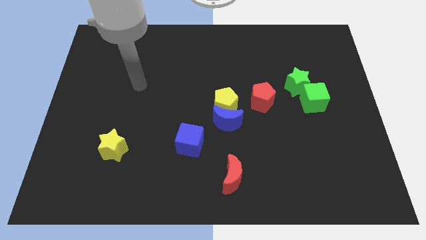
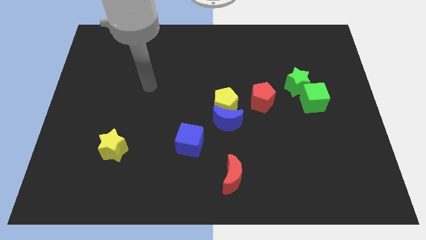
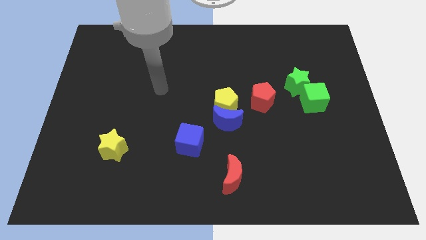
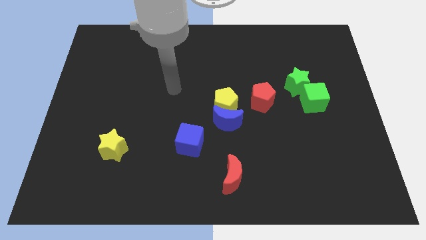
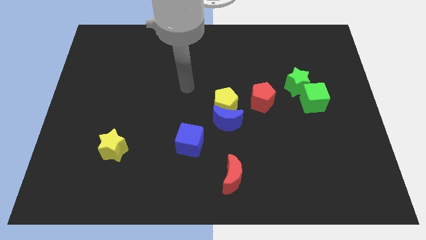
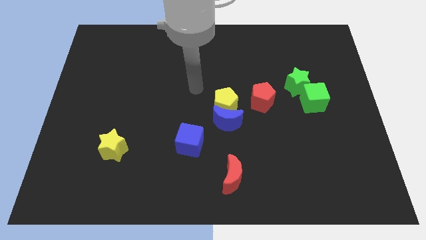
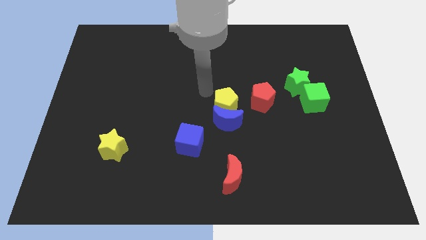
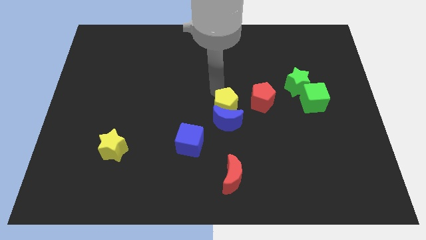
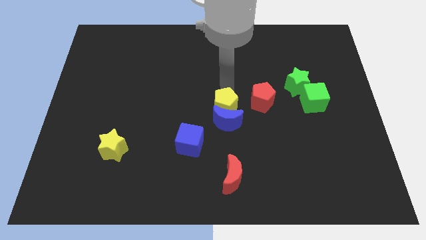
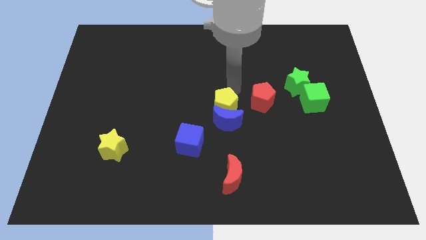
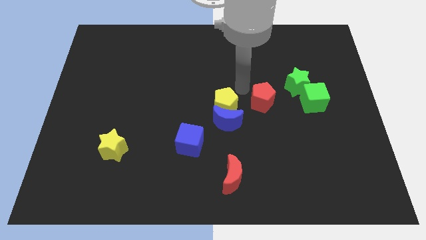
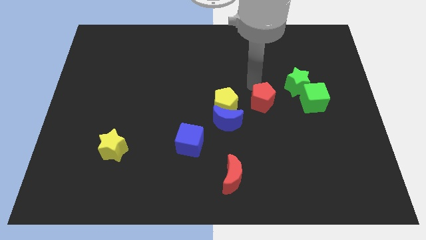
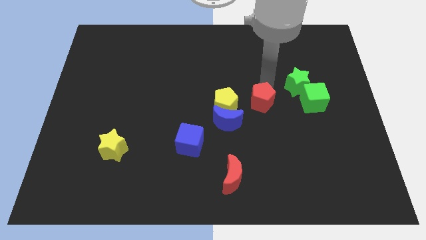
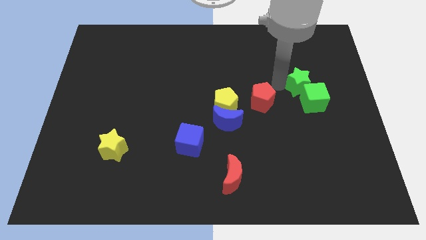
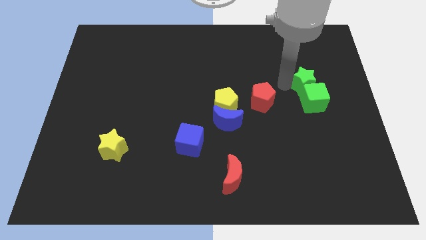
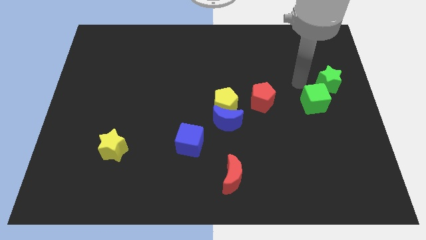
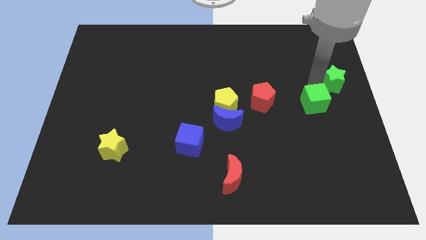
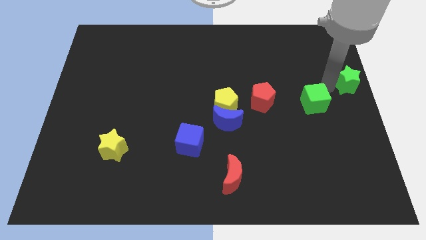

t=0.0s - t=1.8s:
move the green cube away from the green star

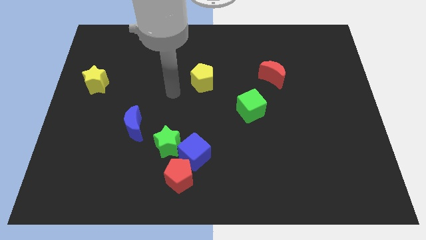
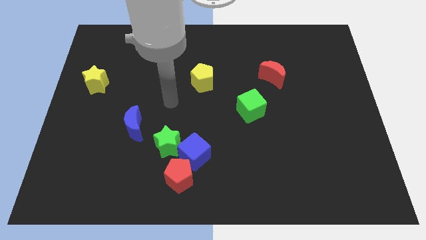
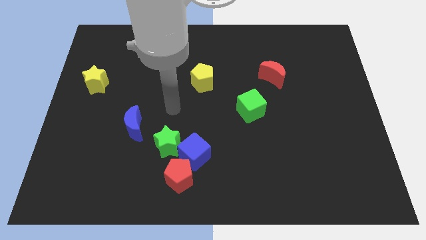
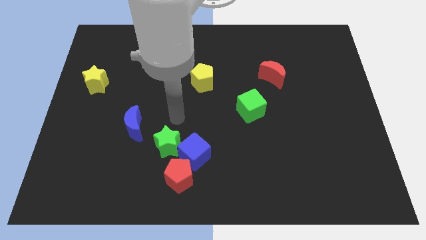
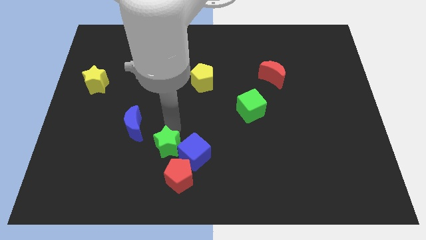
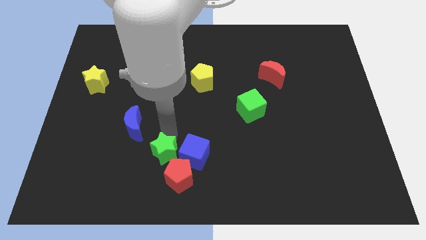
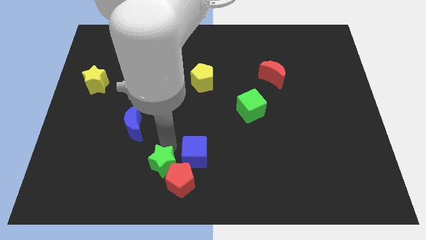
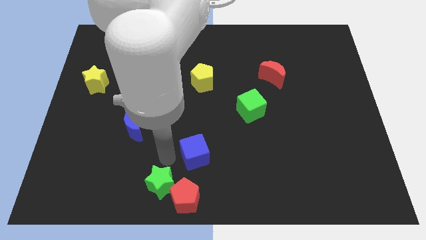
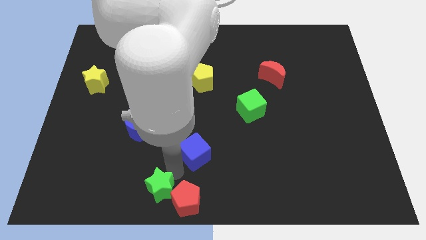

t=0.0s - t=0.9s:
pull the blue cube apart from the red pentagon and green star

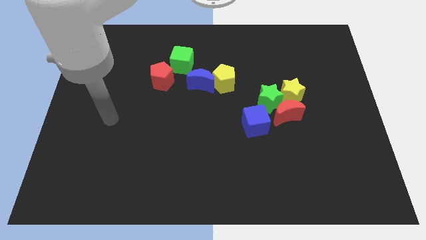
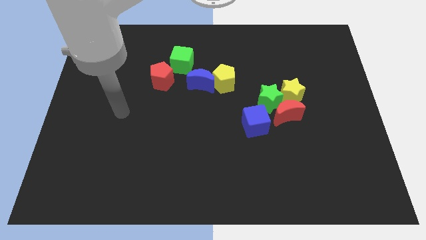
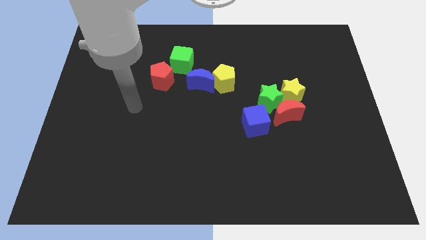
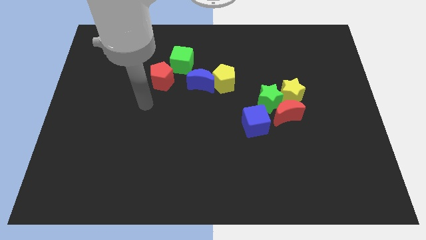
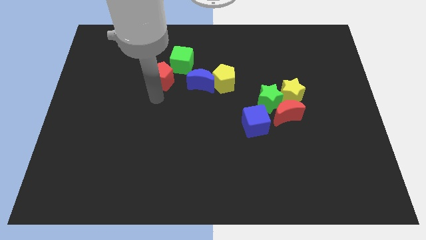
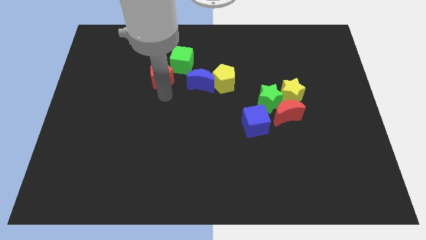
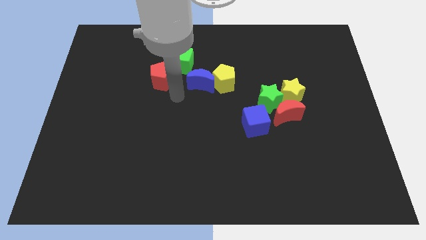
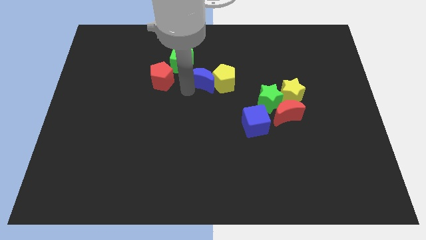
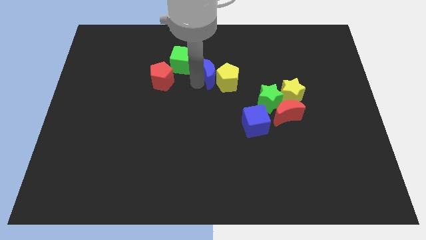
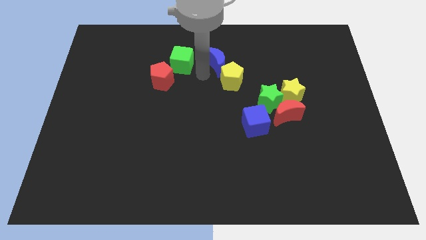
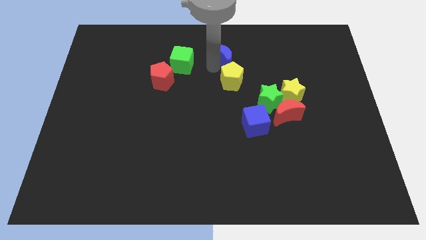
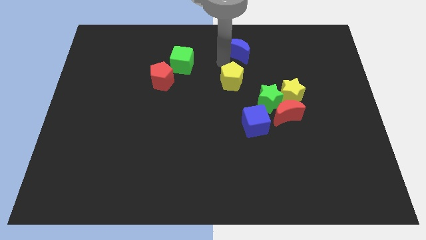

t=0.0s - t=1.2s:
pull the yellow pentagon apart from the blue moon

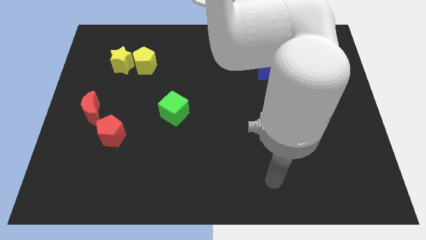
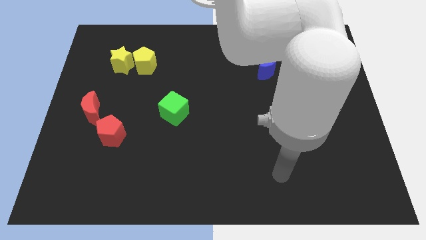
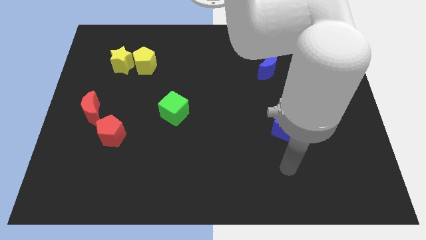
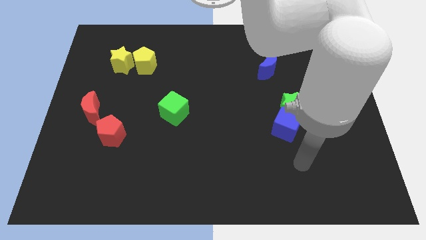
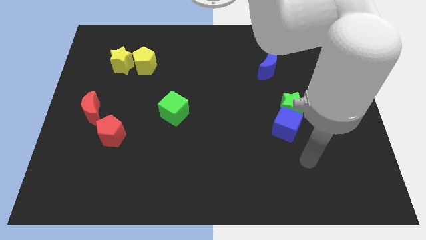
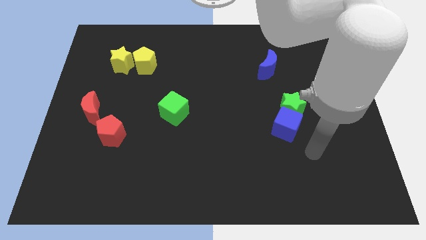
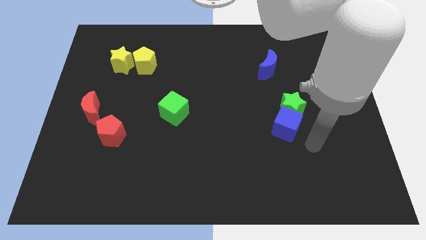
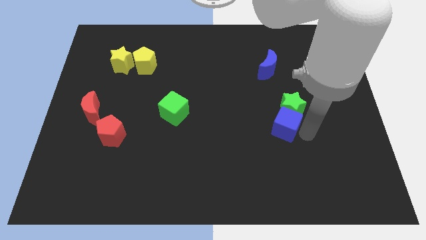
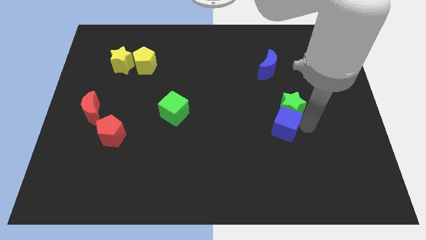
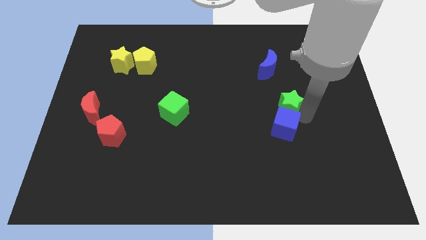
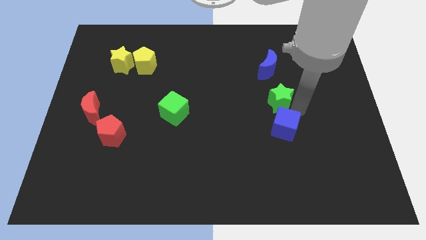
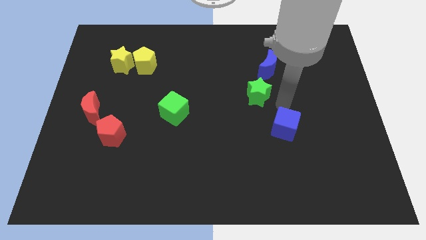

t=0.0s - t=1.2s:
separate the blue cube from the green star

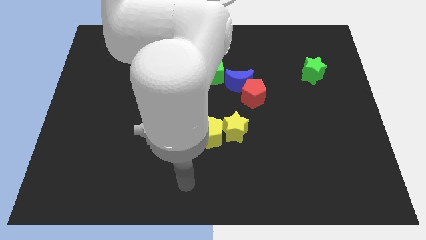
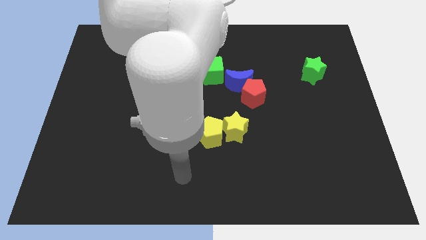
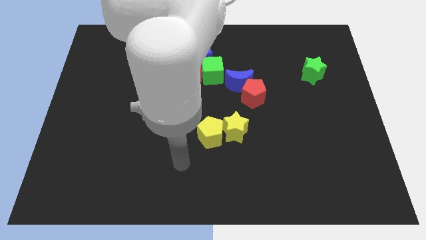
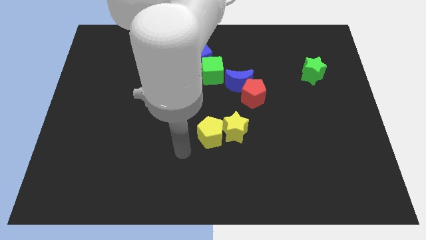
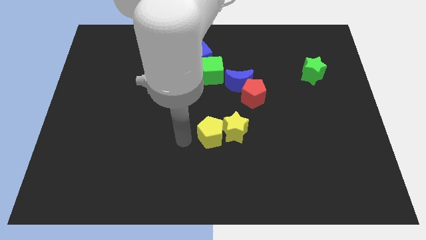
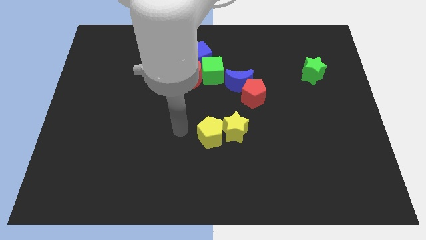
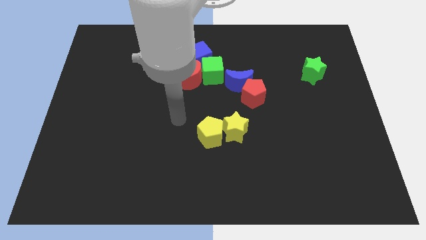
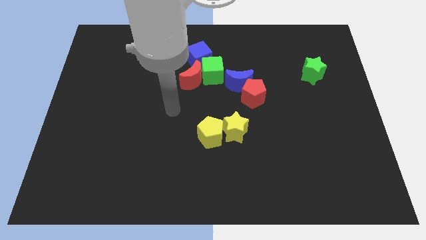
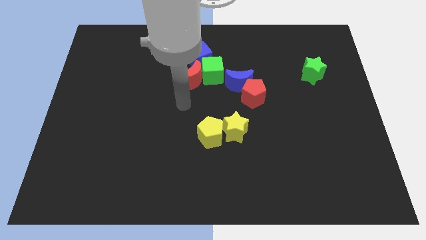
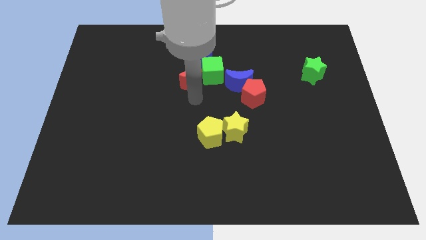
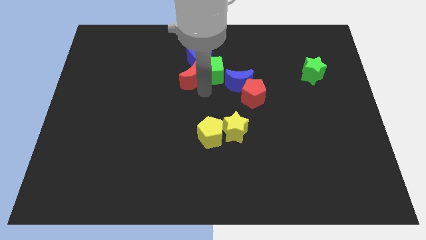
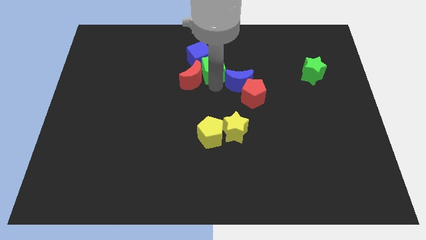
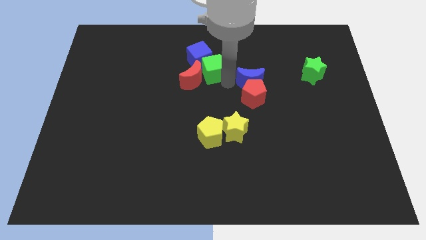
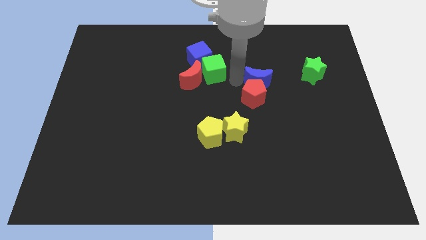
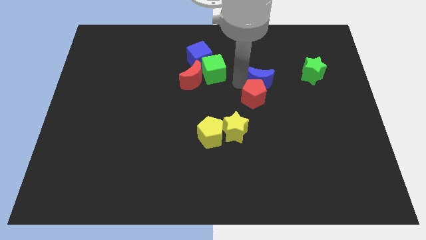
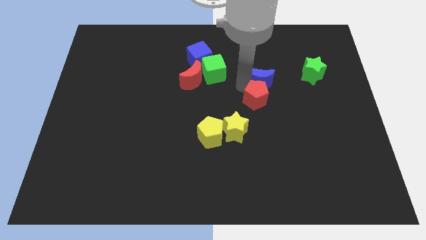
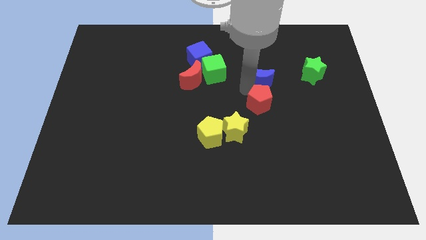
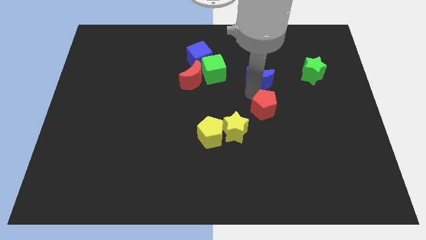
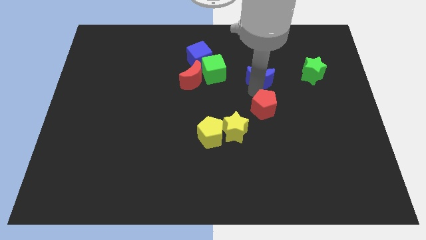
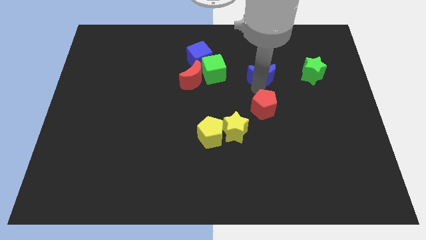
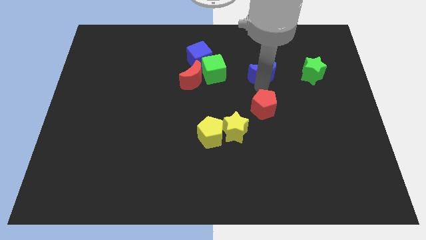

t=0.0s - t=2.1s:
move the red pentagon away from the blue moon

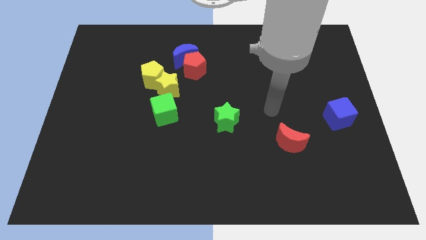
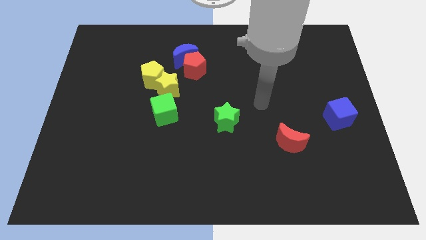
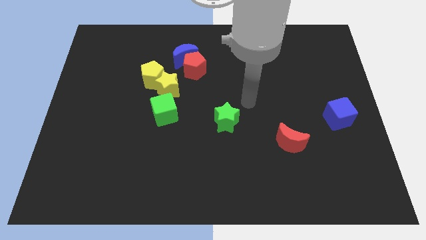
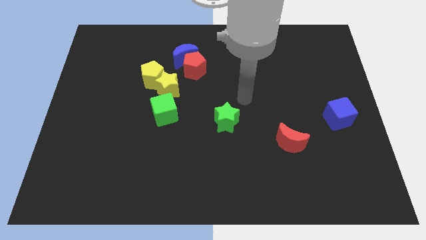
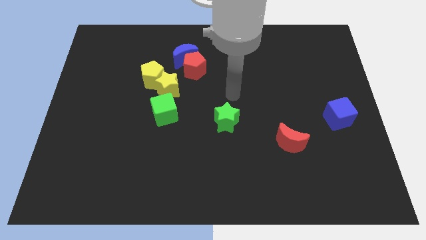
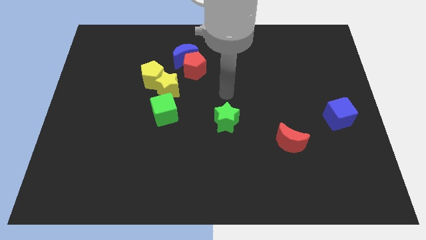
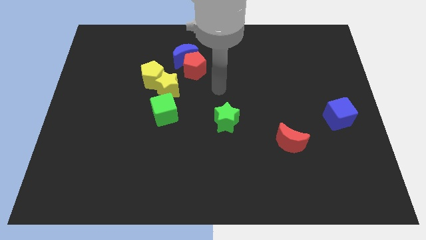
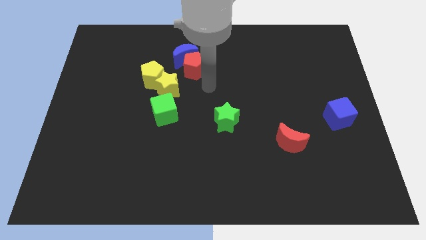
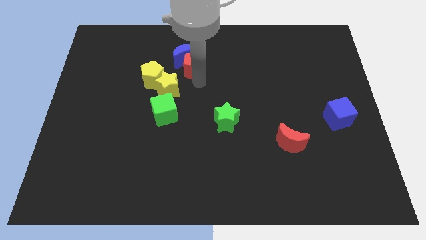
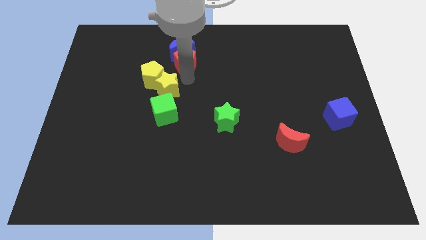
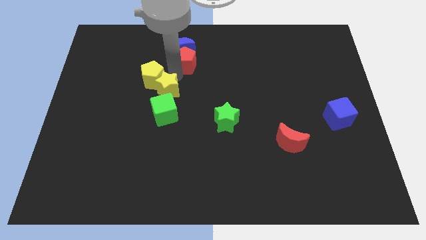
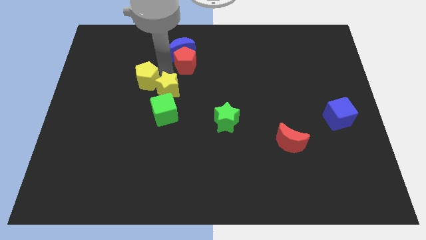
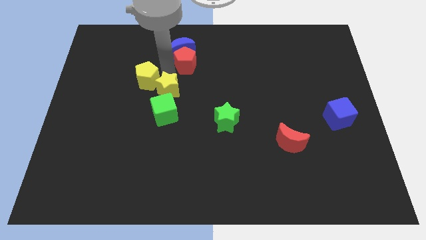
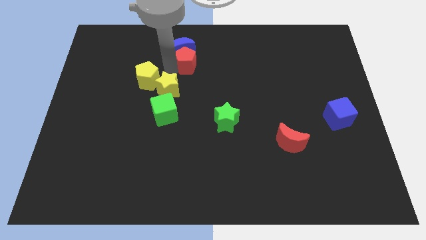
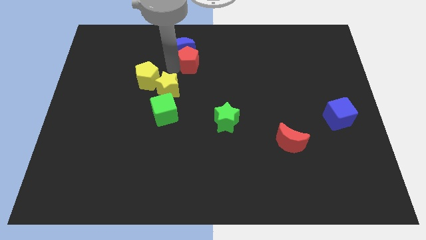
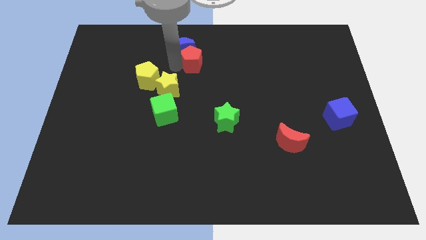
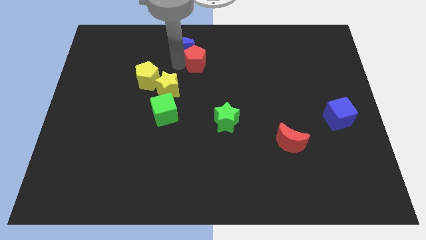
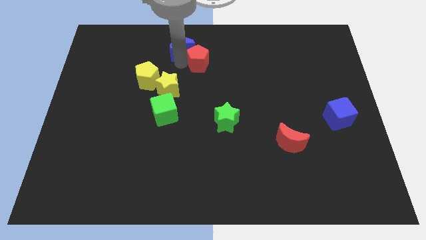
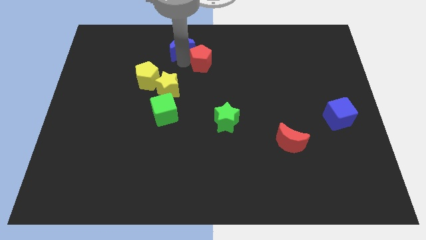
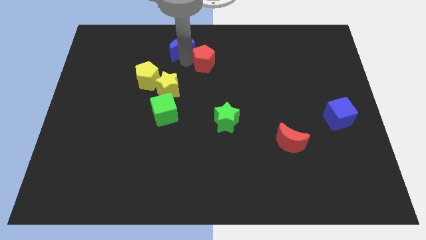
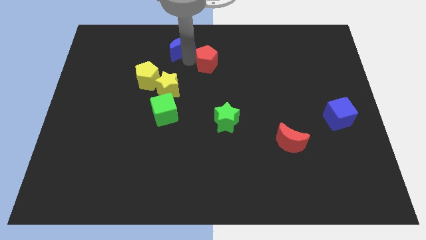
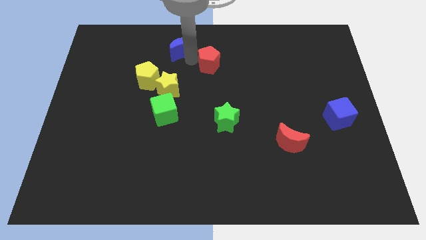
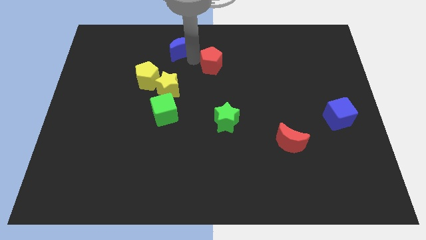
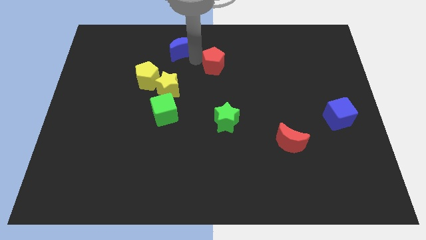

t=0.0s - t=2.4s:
move the red pentagon away from the blue moon and yellow star
